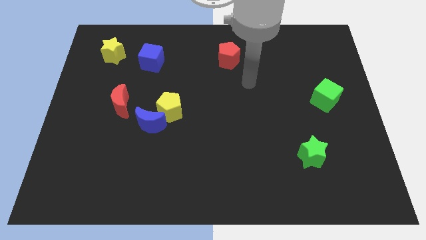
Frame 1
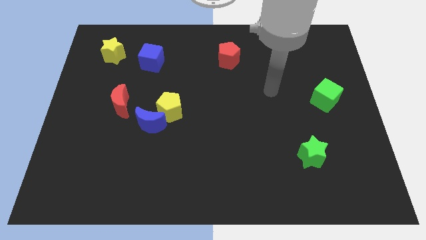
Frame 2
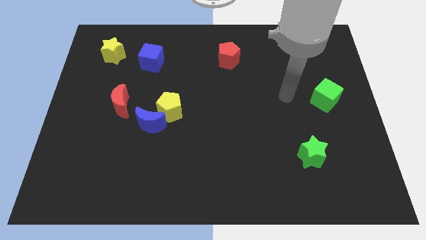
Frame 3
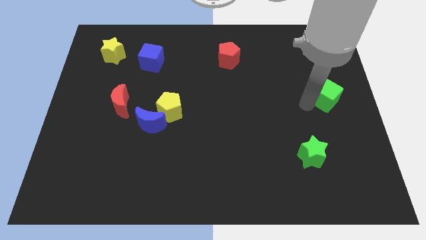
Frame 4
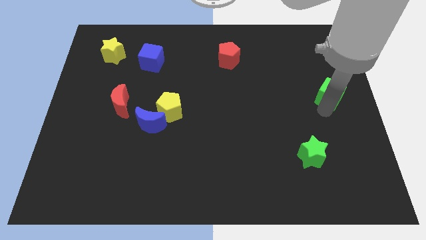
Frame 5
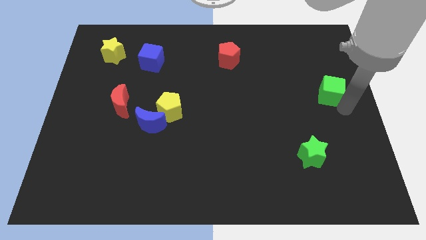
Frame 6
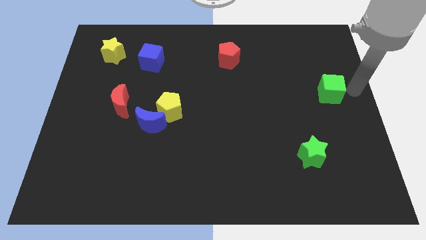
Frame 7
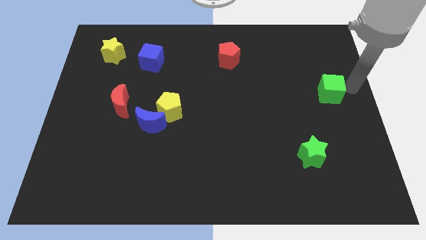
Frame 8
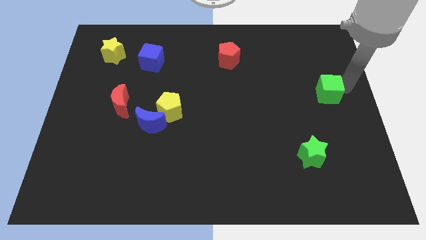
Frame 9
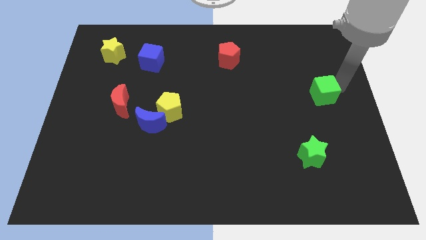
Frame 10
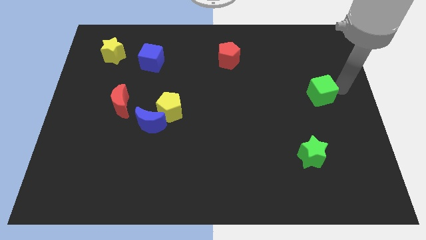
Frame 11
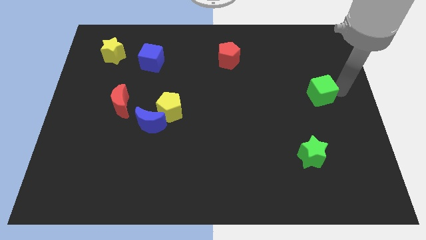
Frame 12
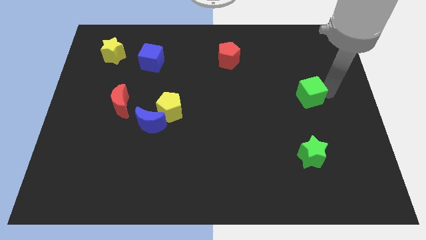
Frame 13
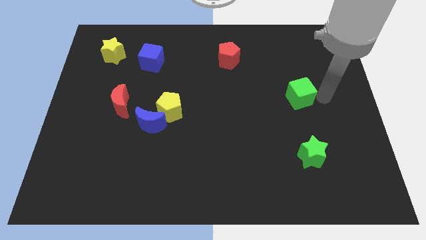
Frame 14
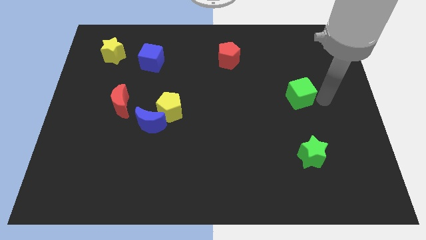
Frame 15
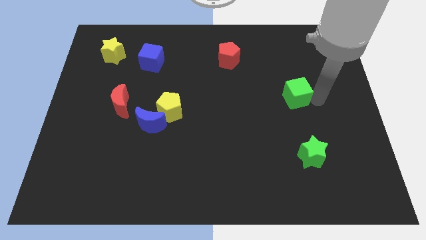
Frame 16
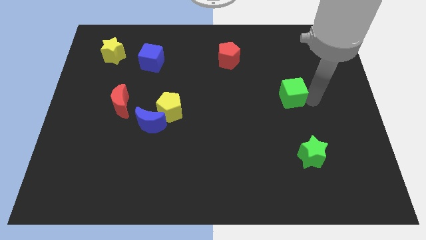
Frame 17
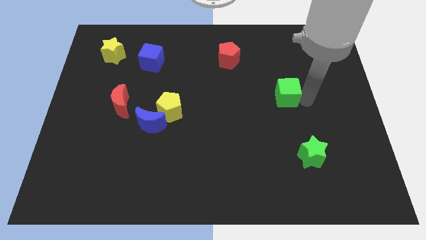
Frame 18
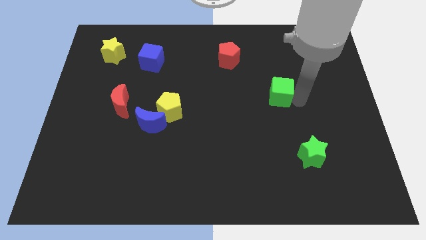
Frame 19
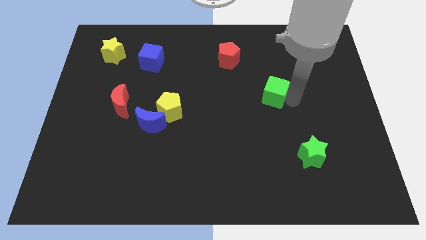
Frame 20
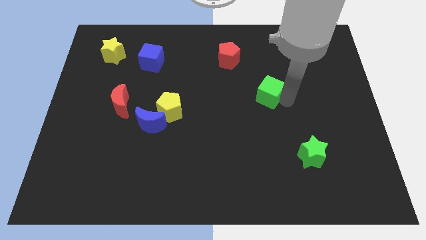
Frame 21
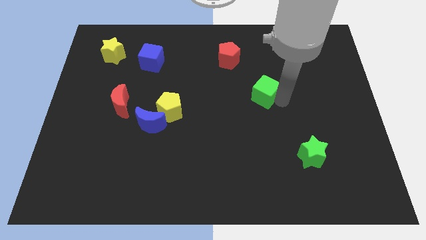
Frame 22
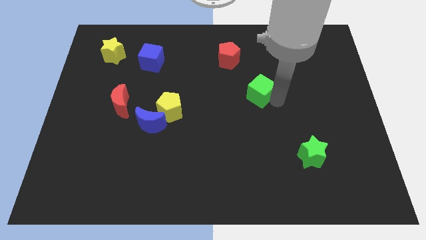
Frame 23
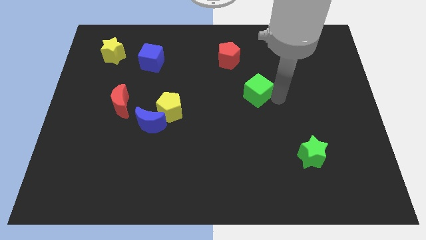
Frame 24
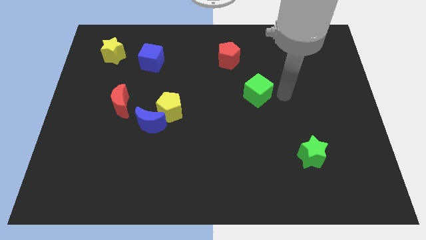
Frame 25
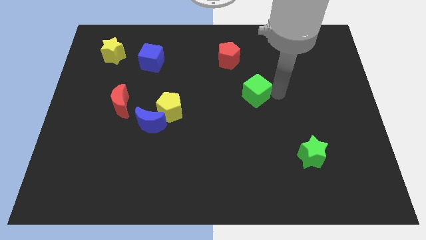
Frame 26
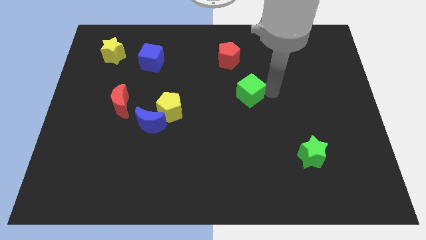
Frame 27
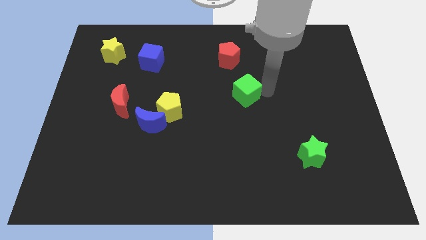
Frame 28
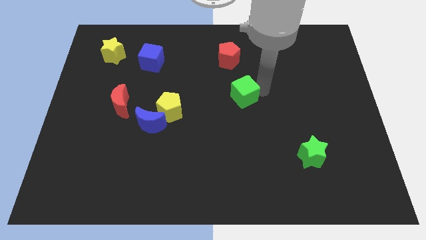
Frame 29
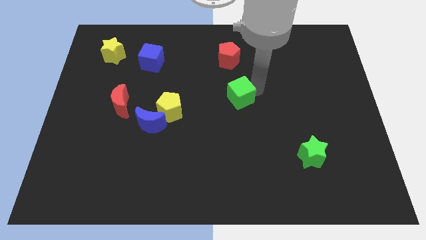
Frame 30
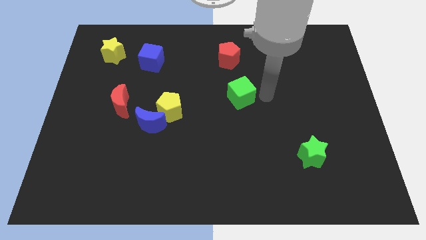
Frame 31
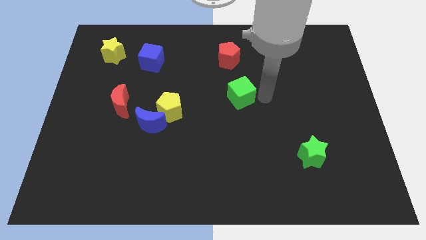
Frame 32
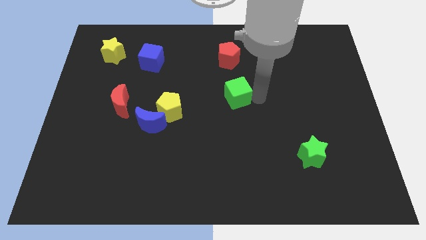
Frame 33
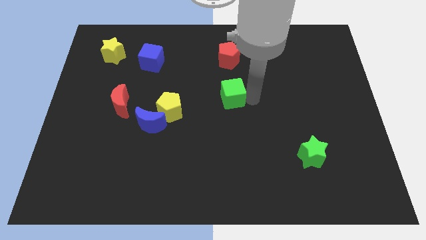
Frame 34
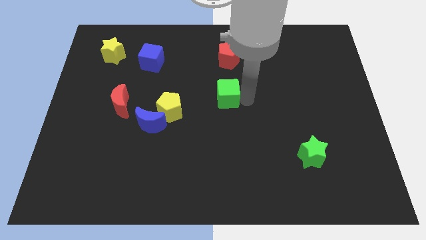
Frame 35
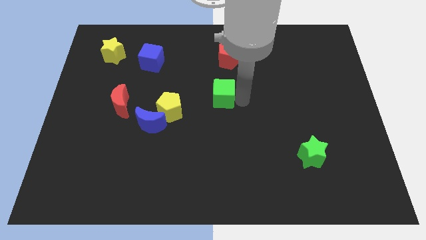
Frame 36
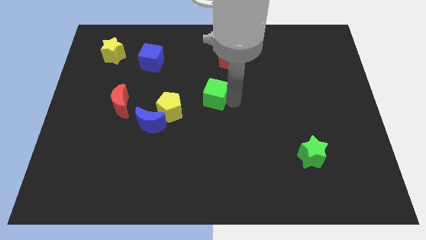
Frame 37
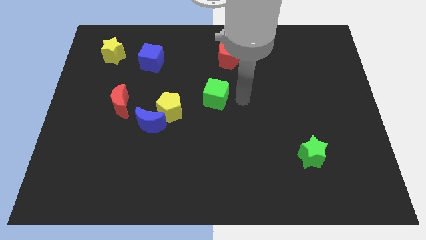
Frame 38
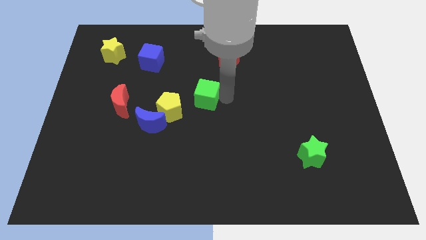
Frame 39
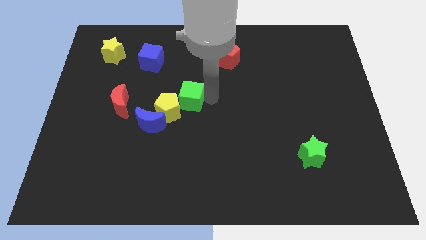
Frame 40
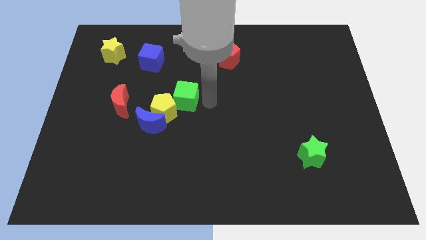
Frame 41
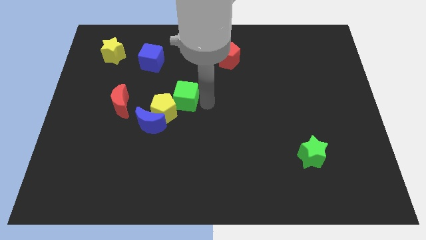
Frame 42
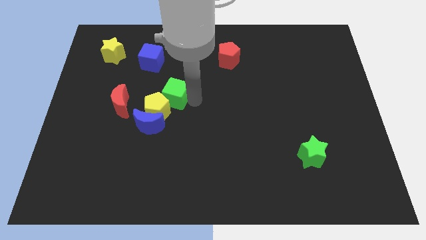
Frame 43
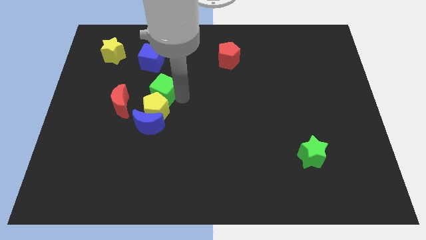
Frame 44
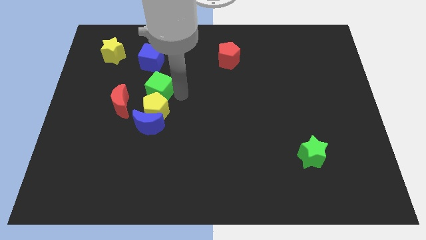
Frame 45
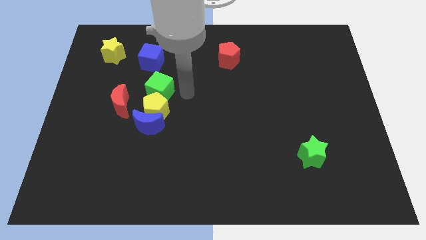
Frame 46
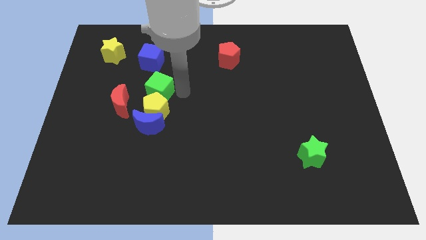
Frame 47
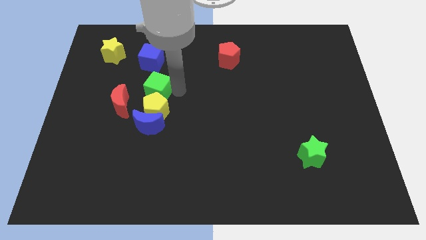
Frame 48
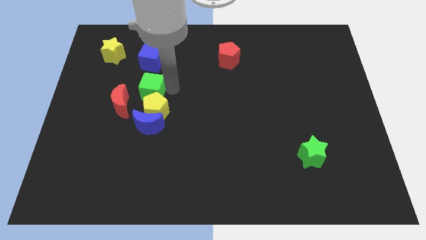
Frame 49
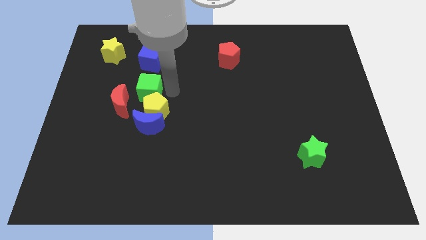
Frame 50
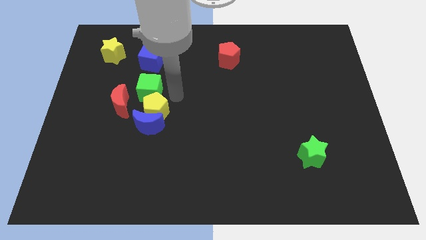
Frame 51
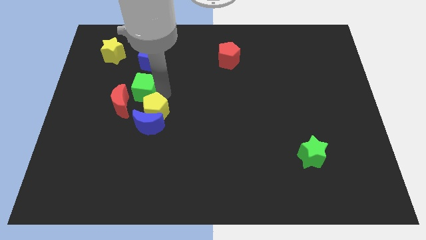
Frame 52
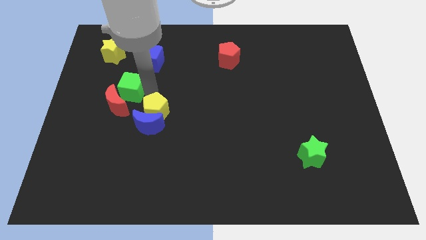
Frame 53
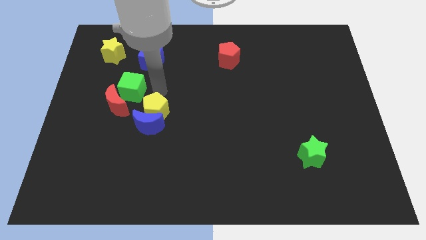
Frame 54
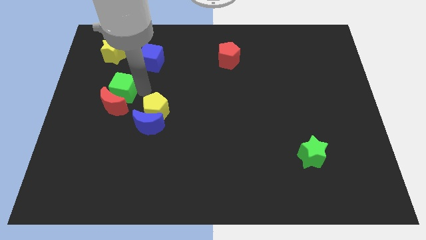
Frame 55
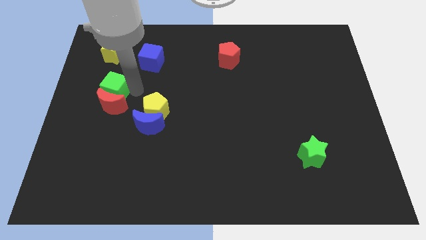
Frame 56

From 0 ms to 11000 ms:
slide the green cube to the top left side of the red moon

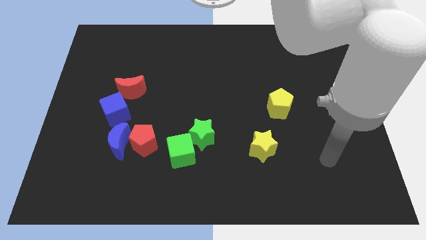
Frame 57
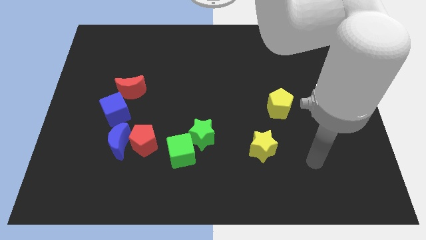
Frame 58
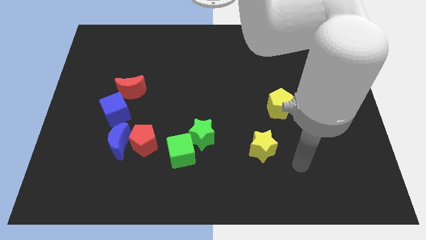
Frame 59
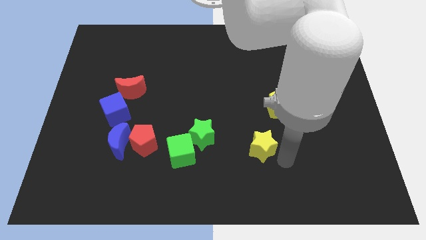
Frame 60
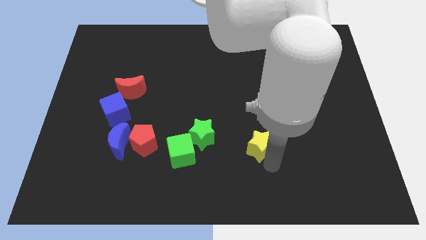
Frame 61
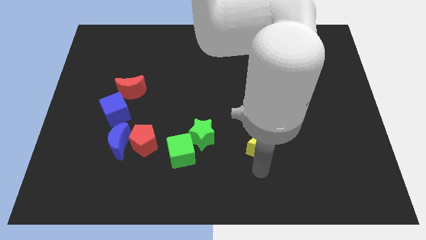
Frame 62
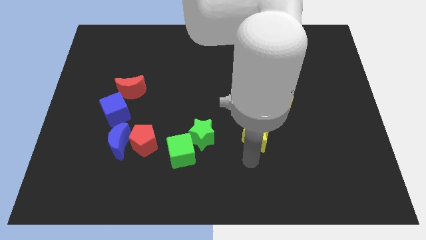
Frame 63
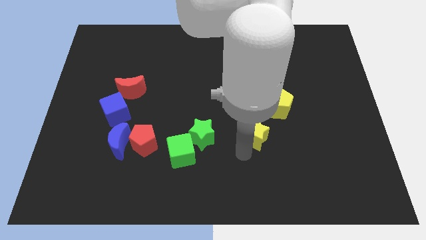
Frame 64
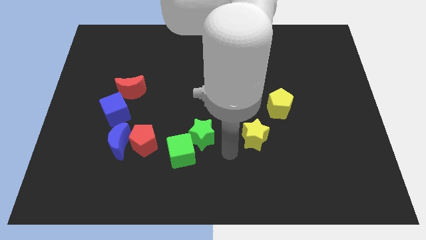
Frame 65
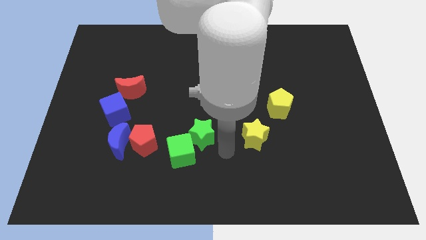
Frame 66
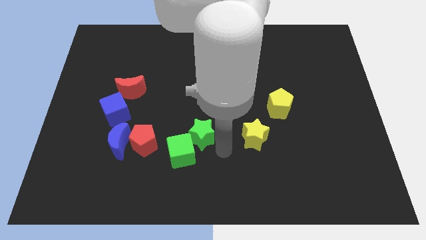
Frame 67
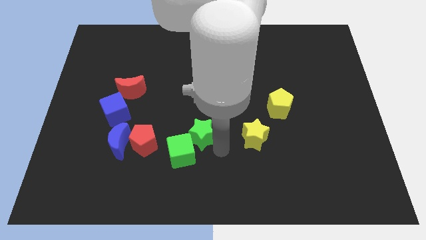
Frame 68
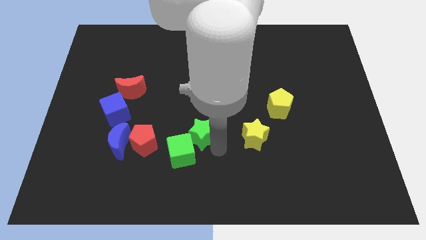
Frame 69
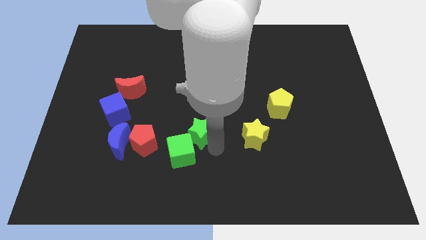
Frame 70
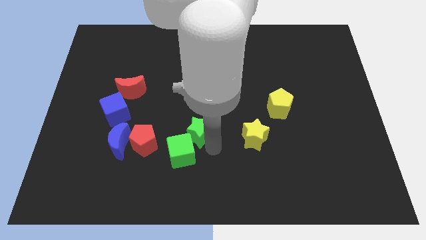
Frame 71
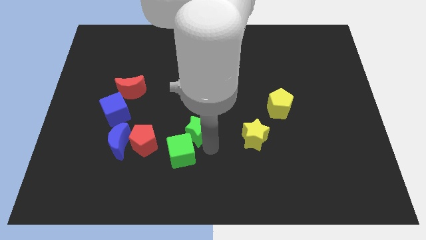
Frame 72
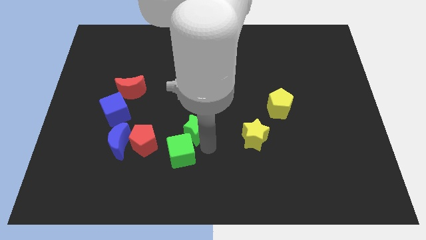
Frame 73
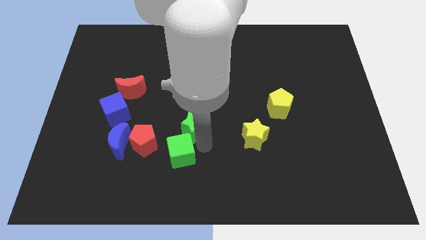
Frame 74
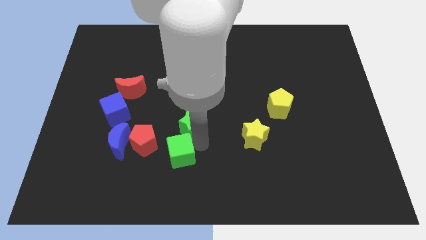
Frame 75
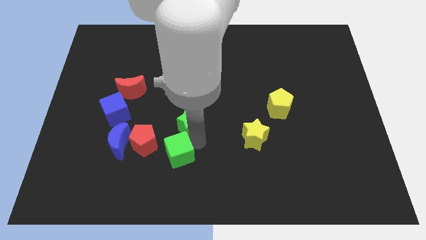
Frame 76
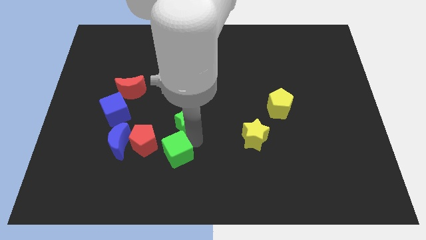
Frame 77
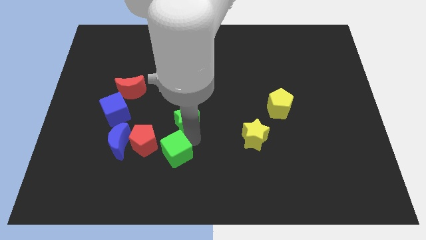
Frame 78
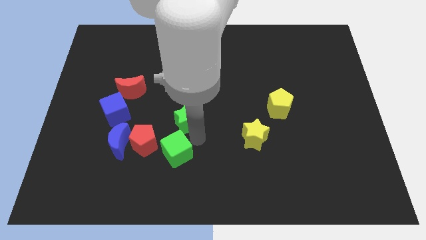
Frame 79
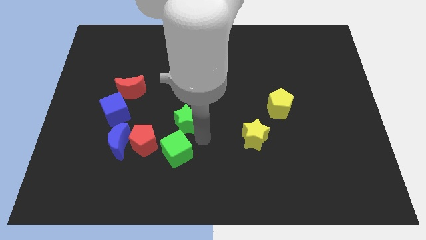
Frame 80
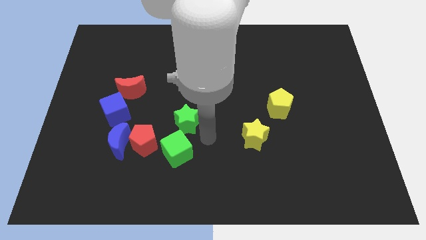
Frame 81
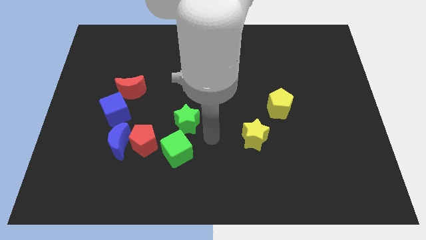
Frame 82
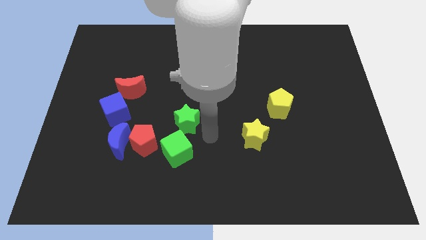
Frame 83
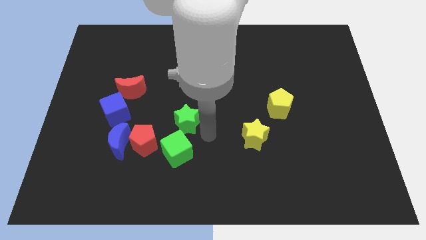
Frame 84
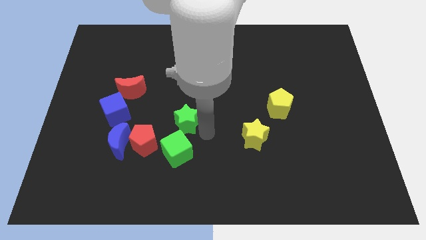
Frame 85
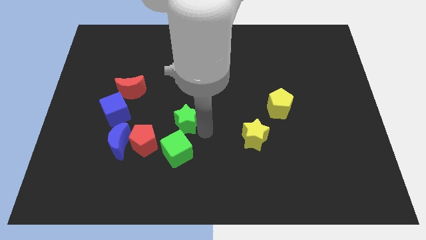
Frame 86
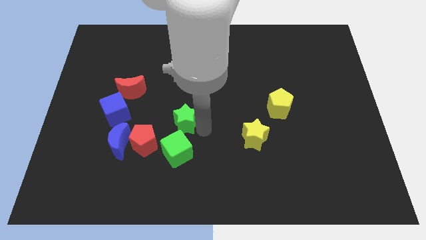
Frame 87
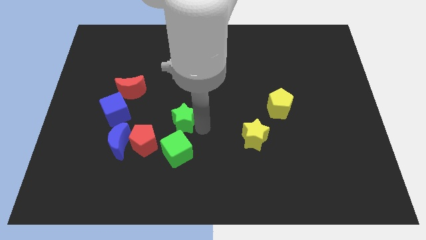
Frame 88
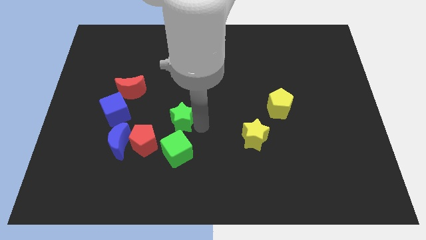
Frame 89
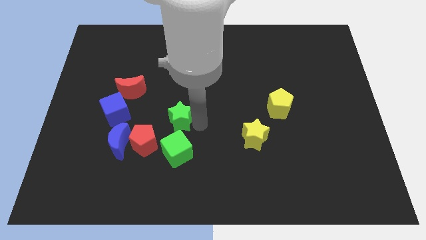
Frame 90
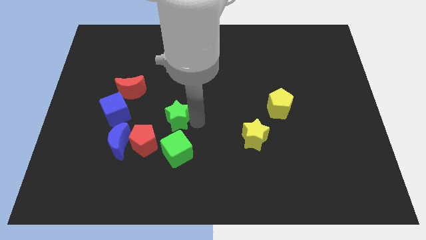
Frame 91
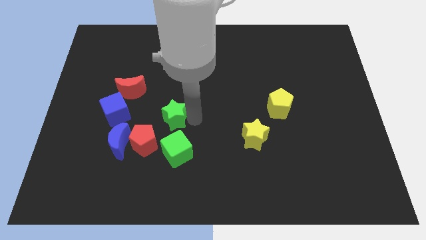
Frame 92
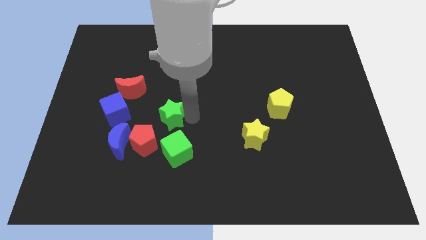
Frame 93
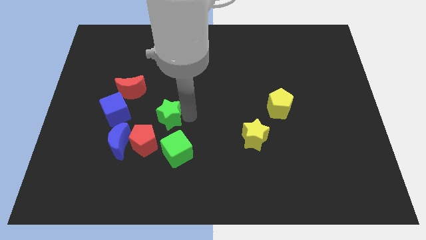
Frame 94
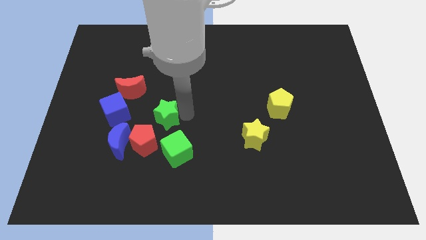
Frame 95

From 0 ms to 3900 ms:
push the green star to the top of the red pentagon
